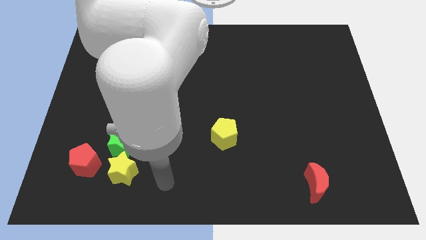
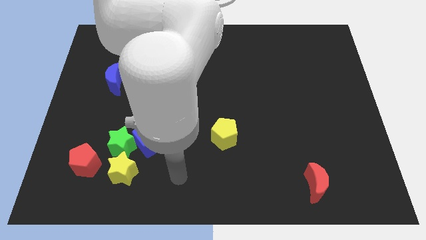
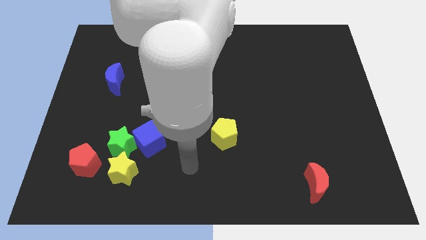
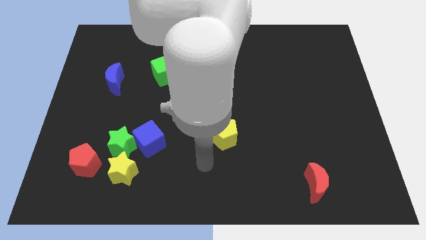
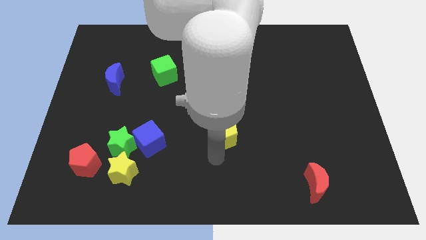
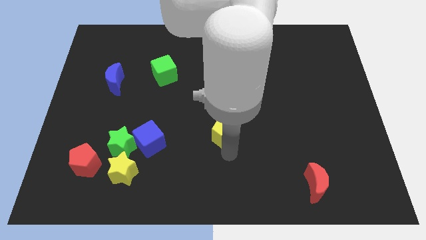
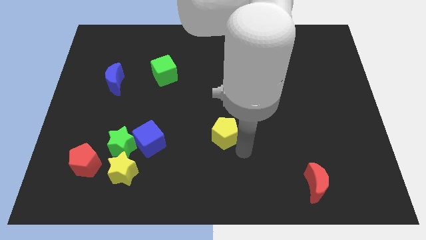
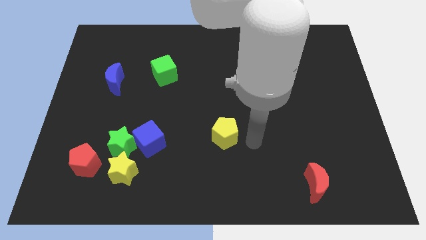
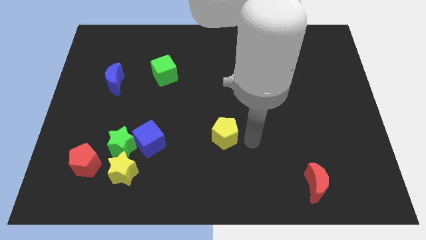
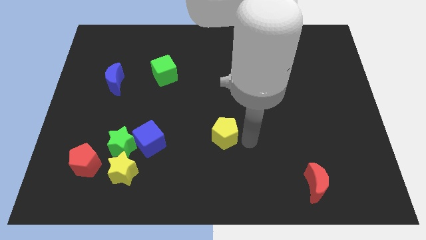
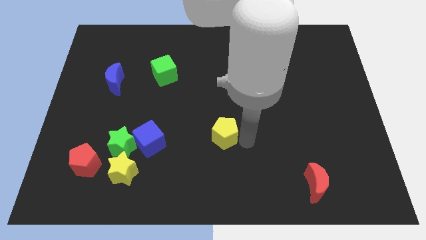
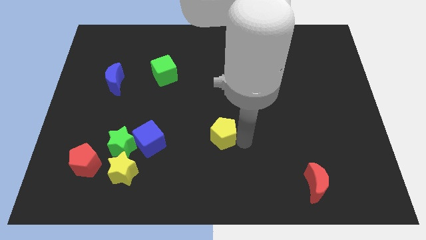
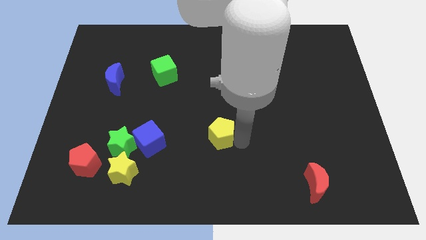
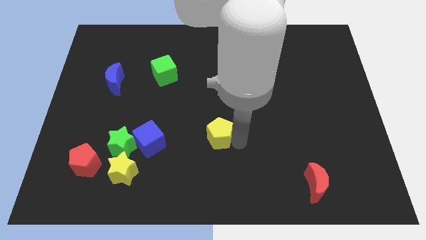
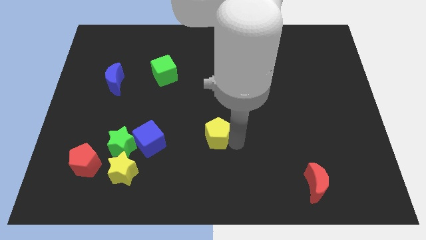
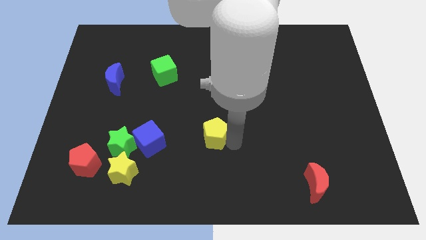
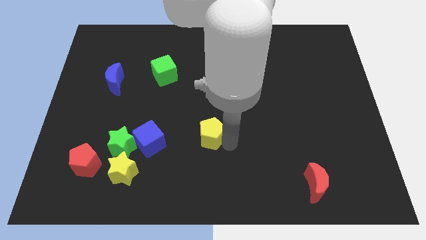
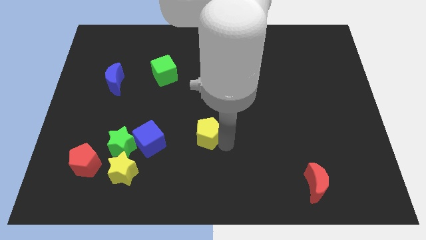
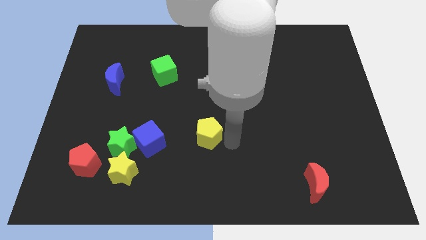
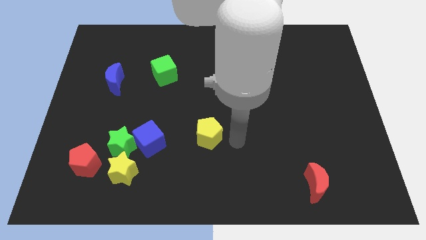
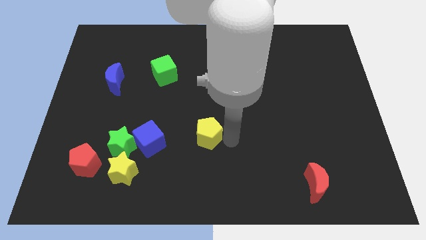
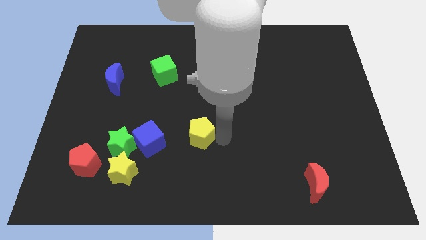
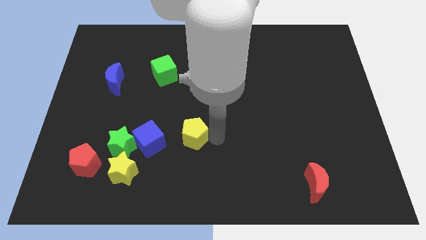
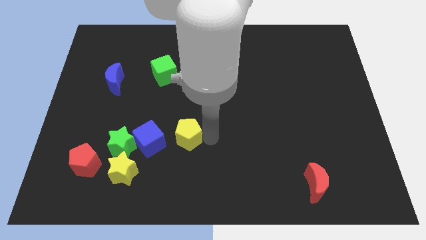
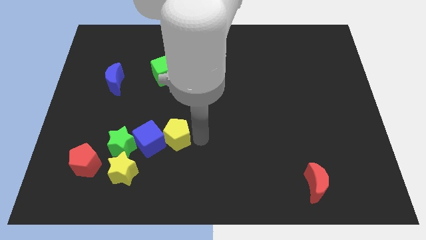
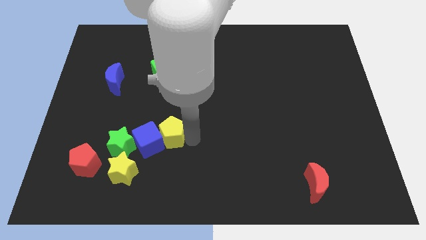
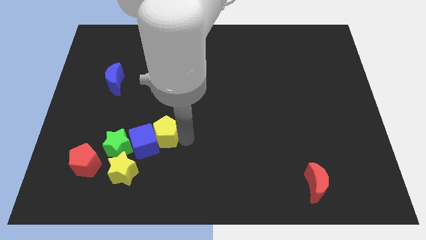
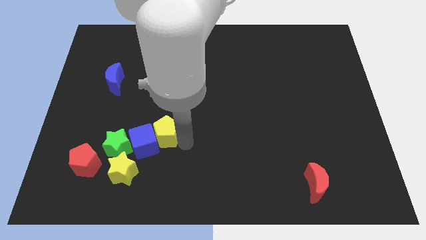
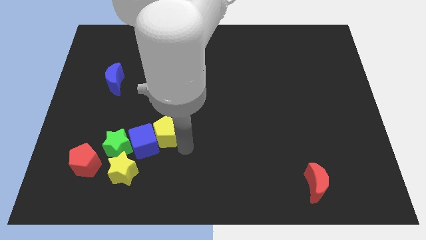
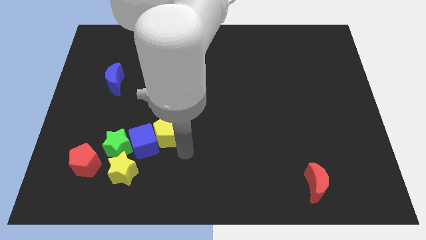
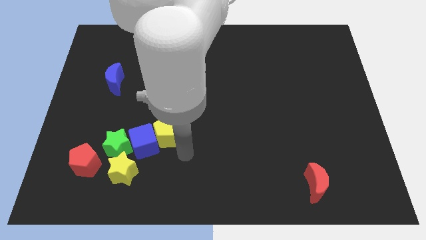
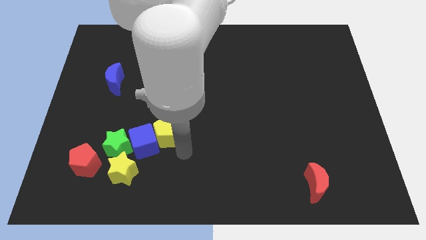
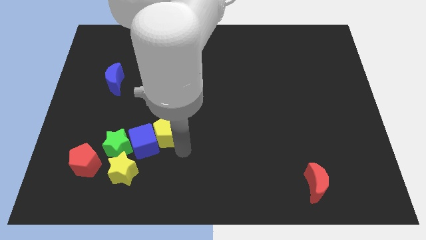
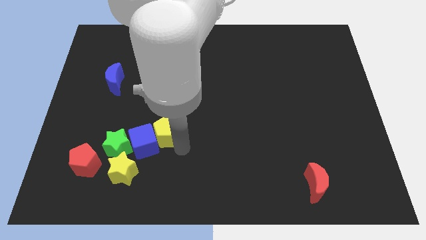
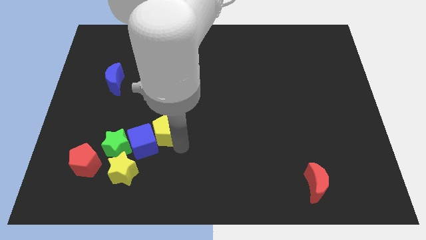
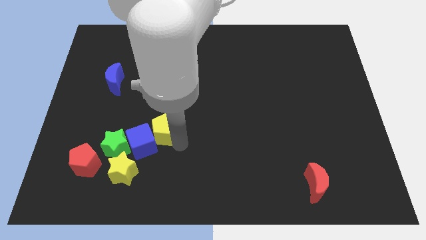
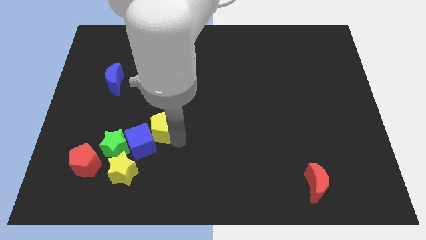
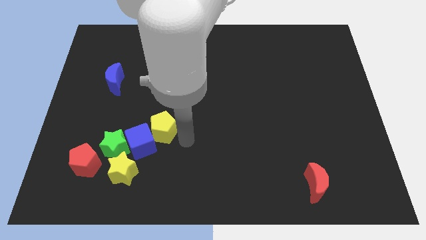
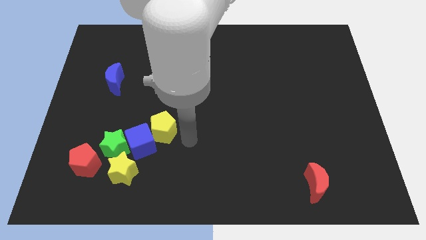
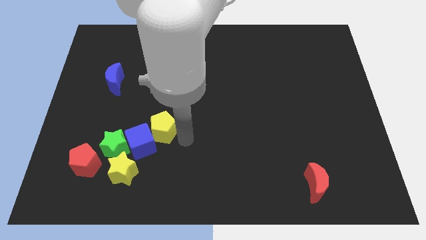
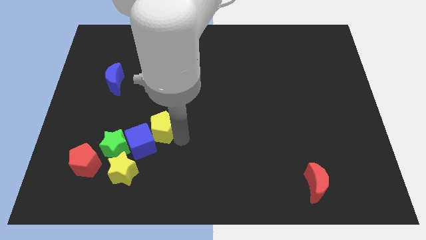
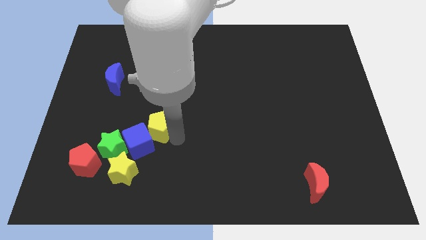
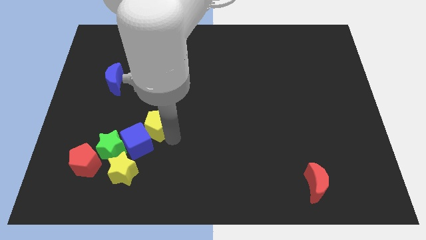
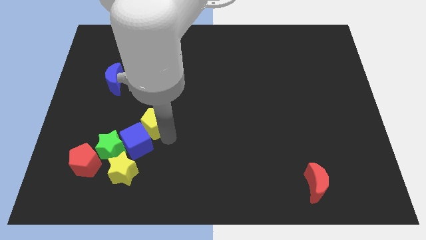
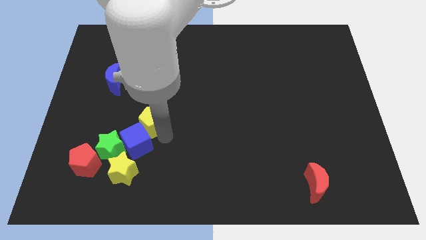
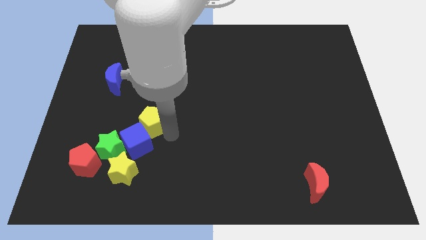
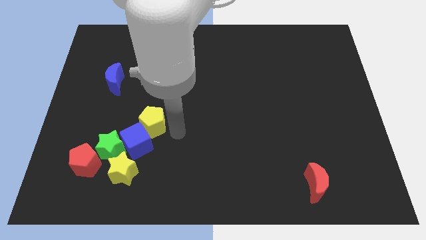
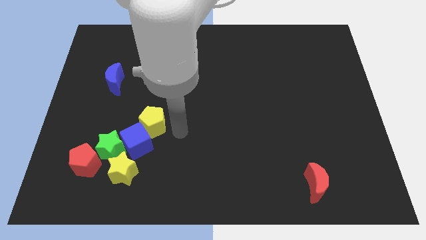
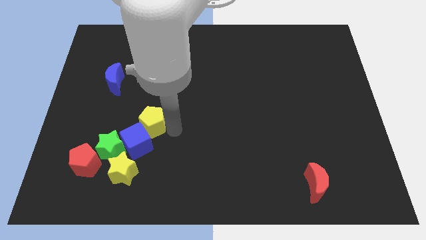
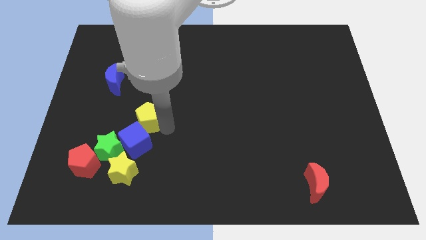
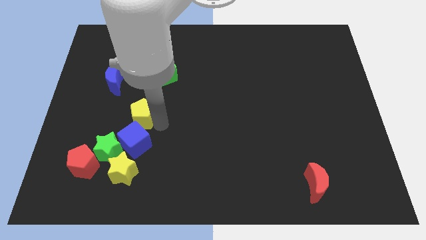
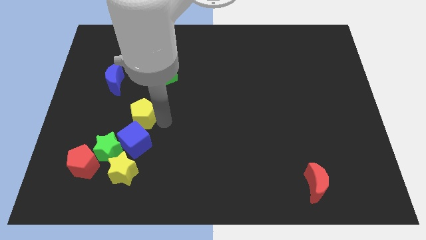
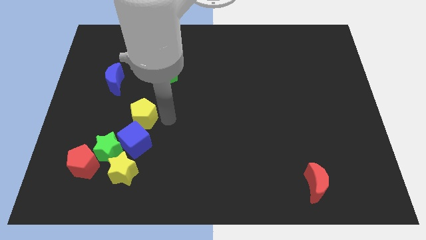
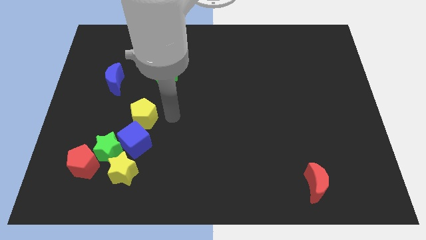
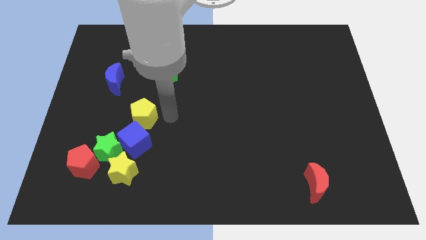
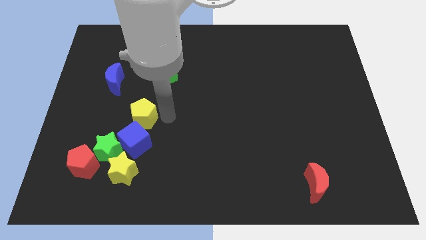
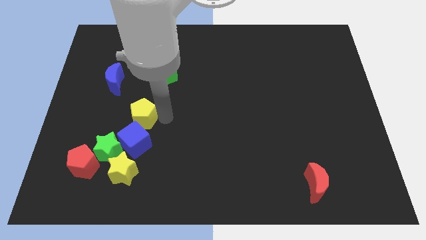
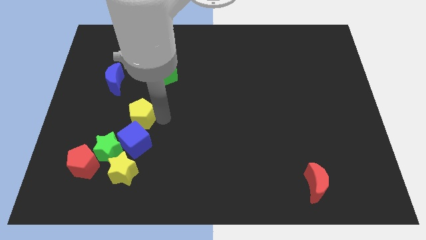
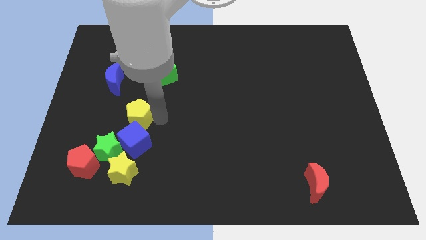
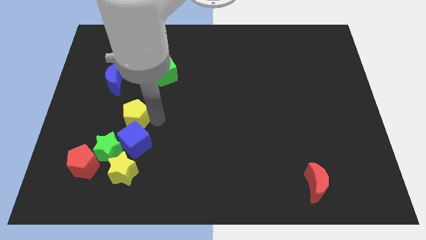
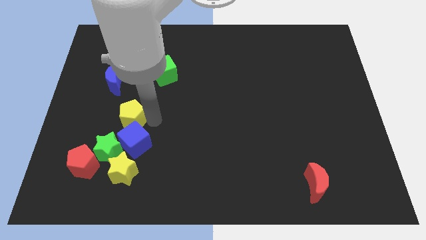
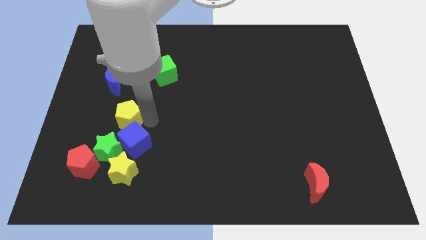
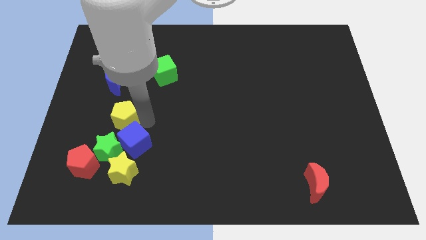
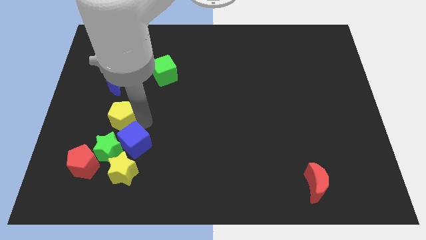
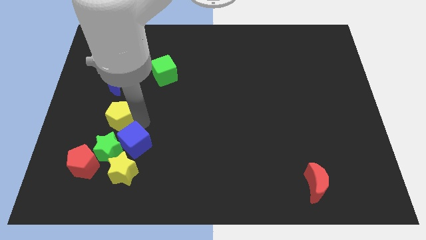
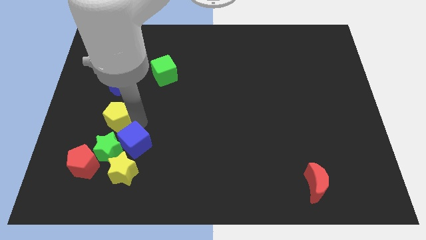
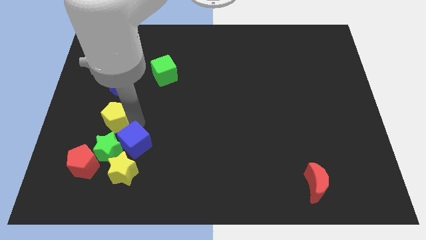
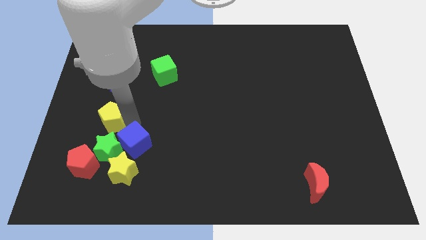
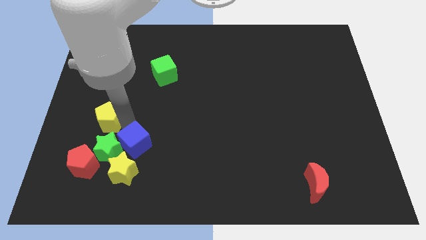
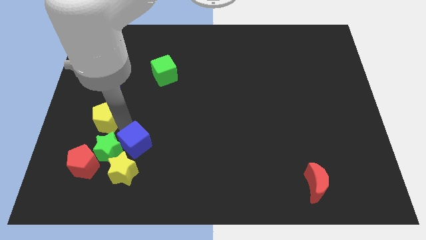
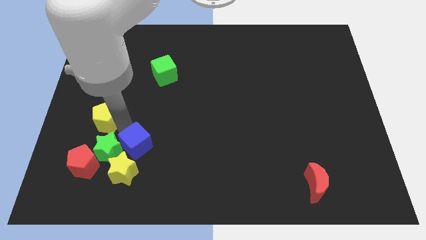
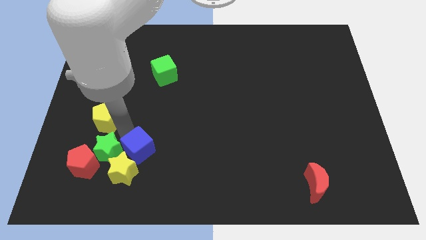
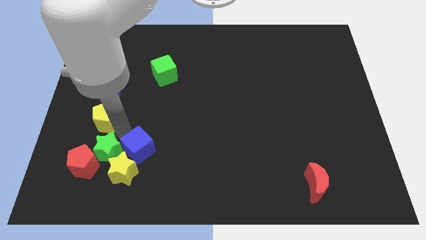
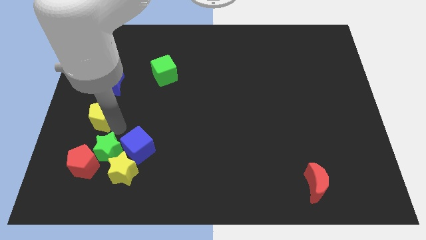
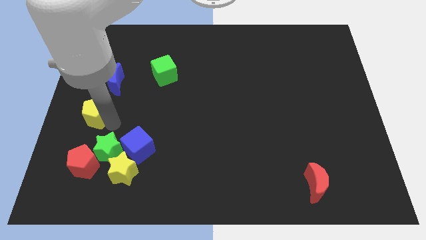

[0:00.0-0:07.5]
put the yellow pentagon to the left side
